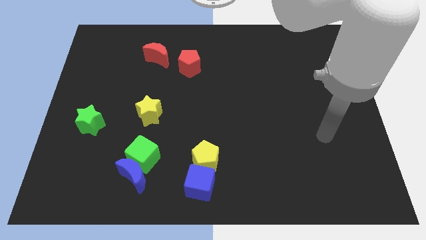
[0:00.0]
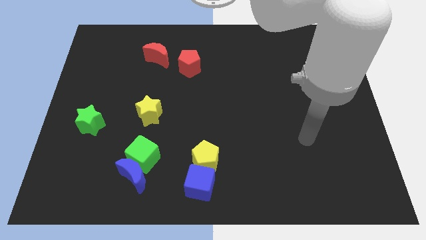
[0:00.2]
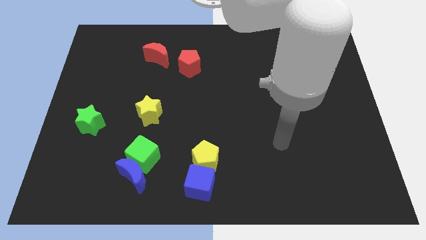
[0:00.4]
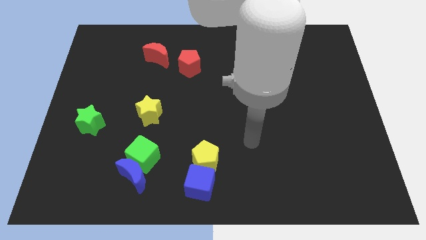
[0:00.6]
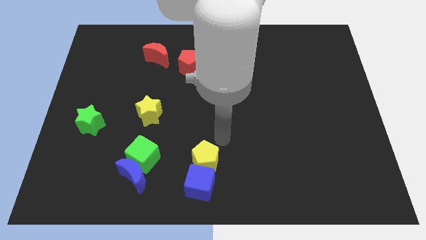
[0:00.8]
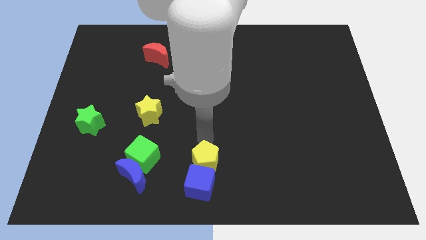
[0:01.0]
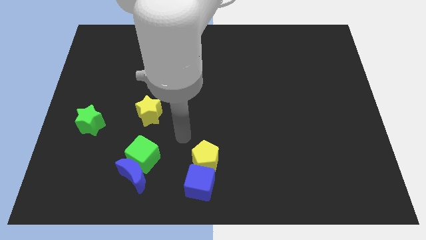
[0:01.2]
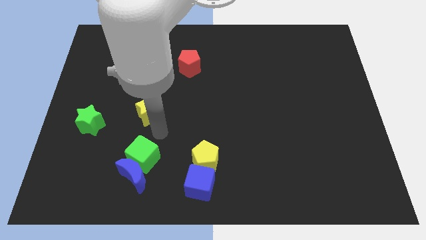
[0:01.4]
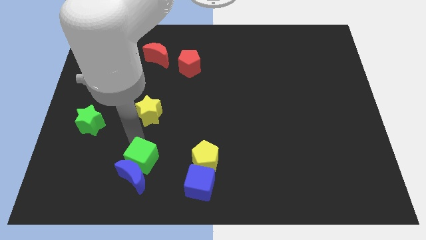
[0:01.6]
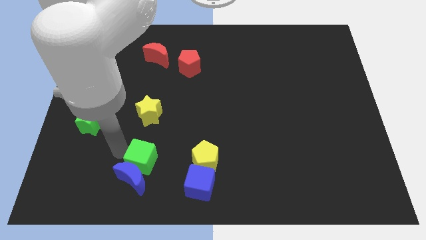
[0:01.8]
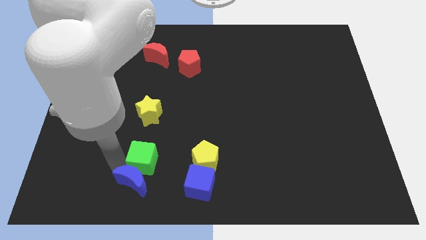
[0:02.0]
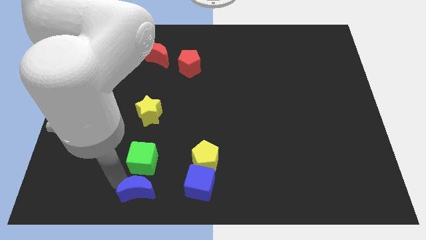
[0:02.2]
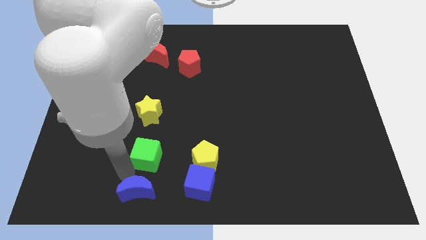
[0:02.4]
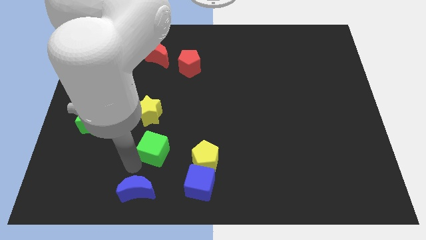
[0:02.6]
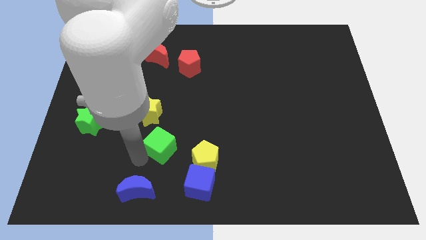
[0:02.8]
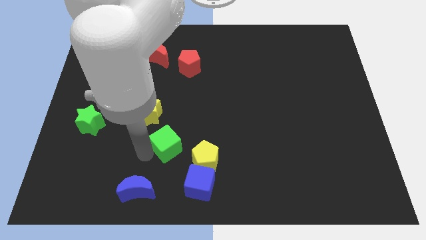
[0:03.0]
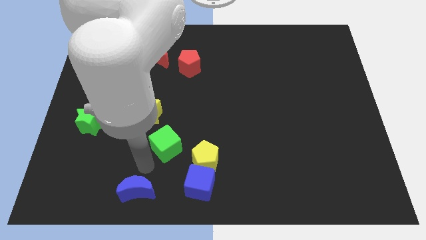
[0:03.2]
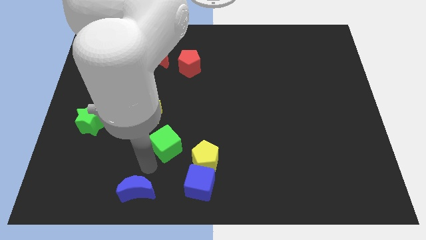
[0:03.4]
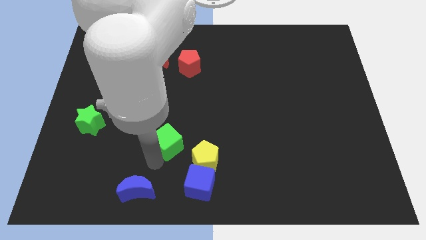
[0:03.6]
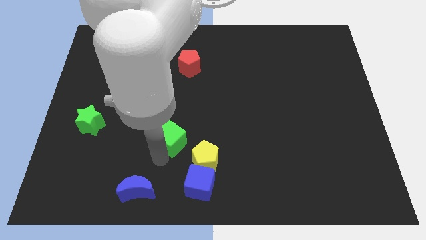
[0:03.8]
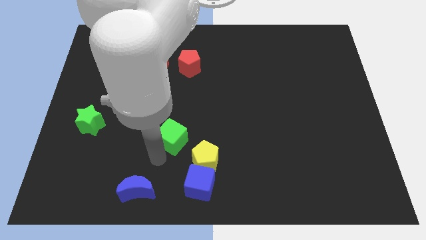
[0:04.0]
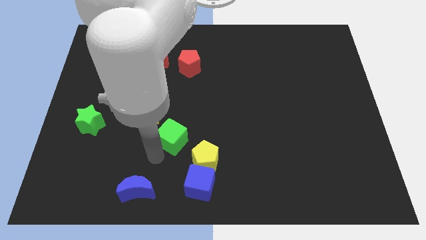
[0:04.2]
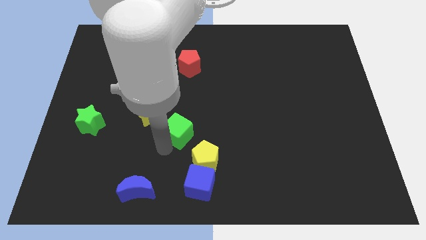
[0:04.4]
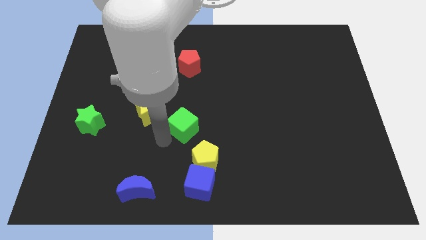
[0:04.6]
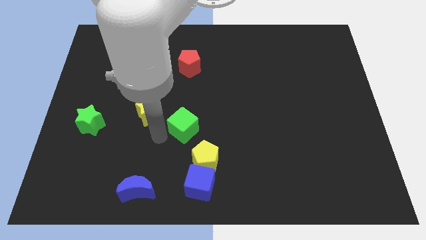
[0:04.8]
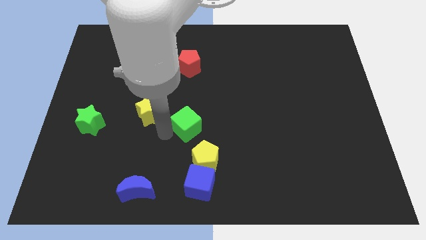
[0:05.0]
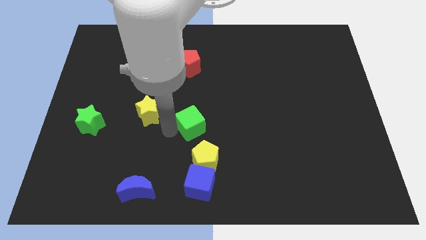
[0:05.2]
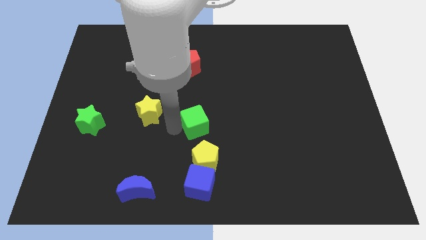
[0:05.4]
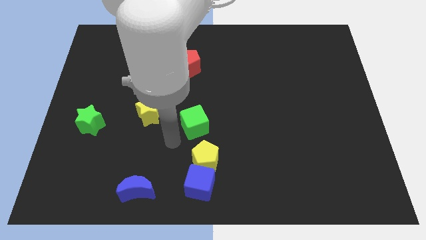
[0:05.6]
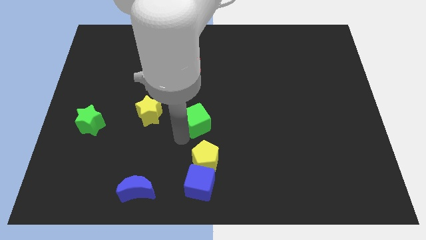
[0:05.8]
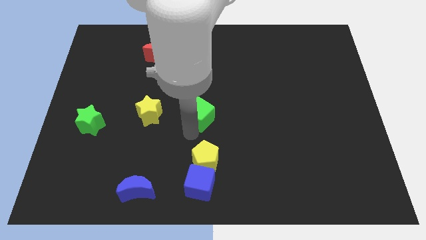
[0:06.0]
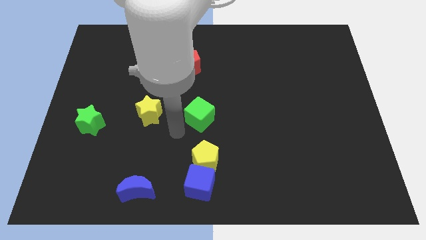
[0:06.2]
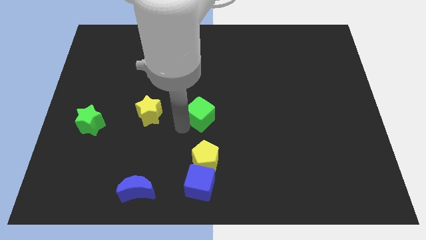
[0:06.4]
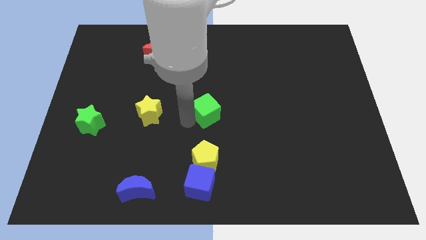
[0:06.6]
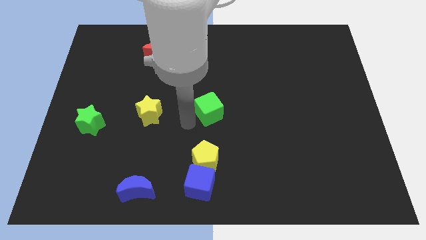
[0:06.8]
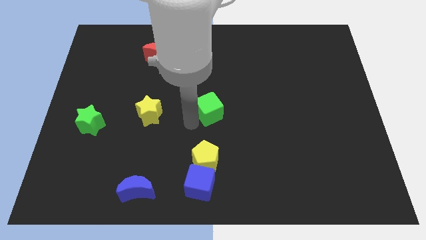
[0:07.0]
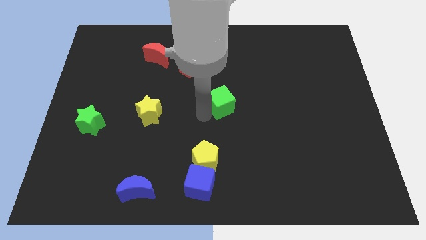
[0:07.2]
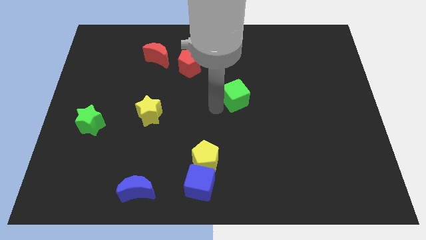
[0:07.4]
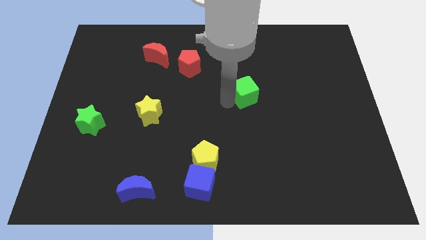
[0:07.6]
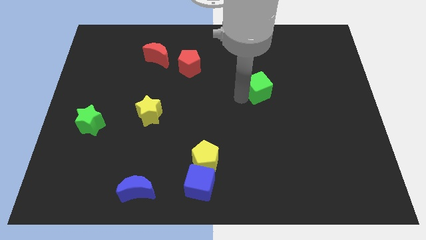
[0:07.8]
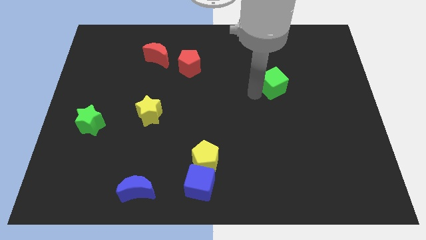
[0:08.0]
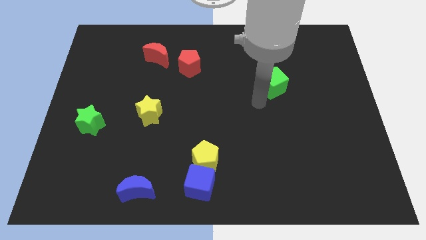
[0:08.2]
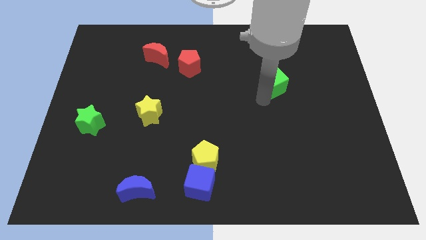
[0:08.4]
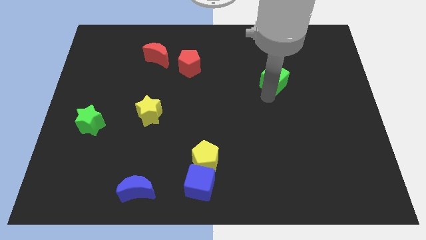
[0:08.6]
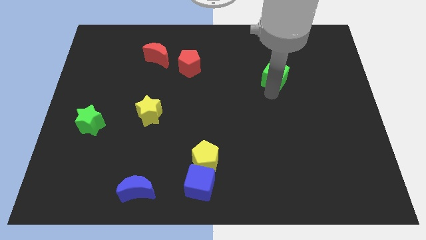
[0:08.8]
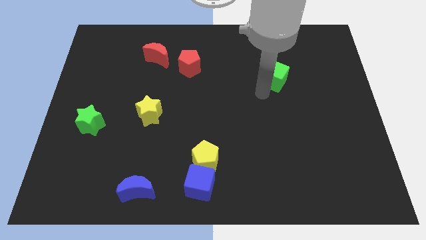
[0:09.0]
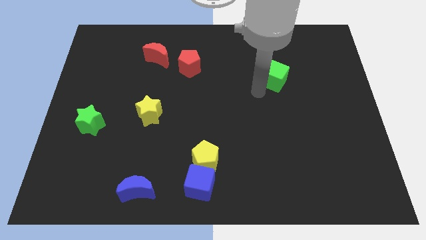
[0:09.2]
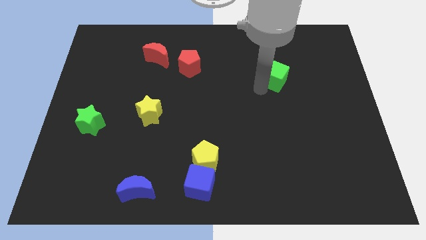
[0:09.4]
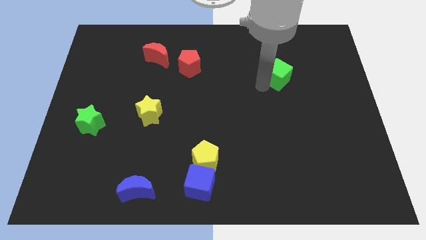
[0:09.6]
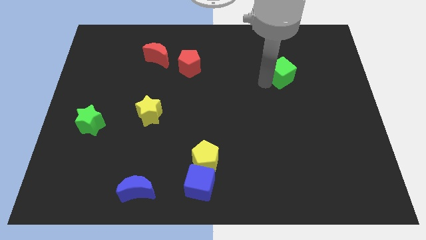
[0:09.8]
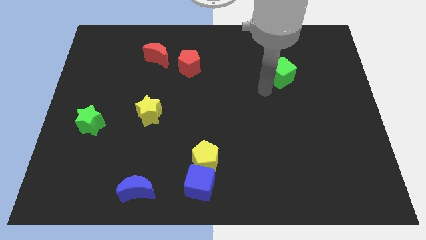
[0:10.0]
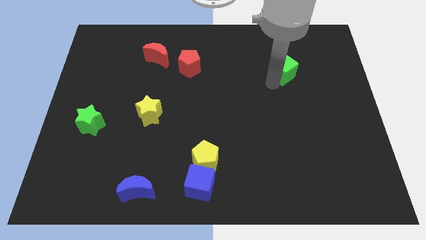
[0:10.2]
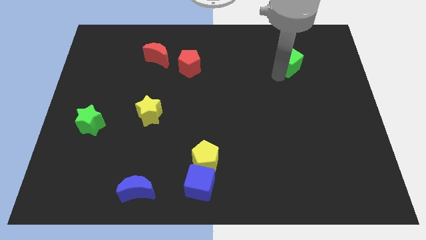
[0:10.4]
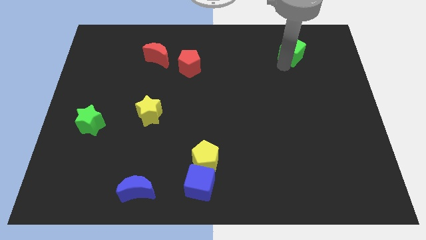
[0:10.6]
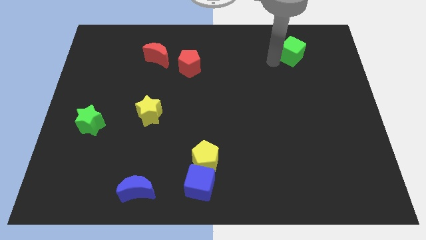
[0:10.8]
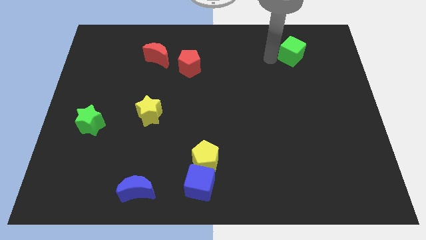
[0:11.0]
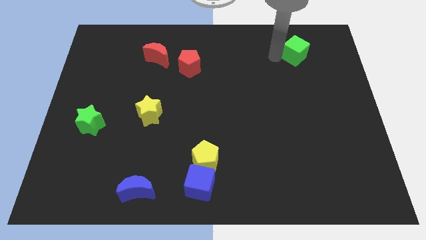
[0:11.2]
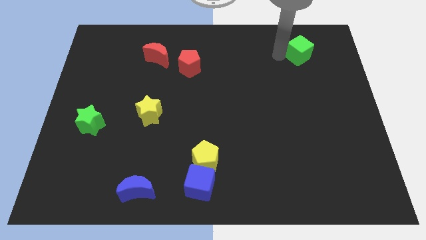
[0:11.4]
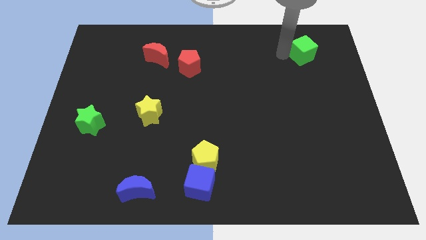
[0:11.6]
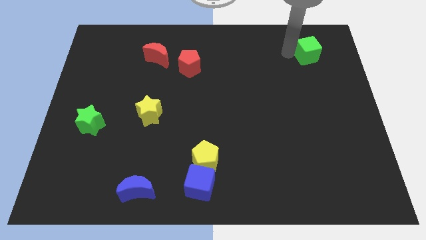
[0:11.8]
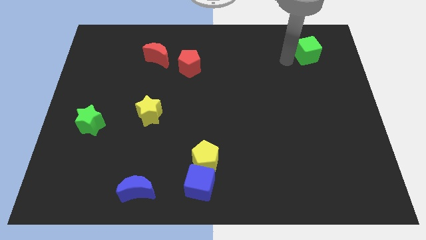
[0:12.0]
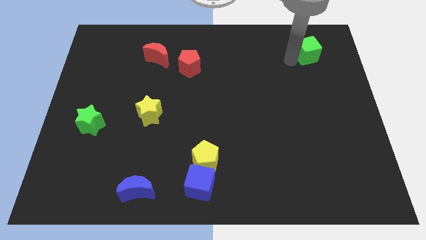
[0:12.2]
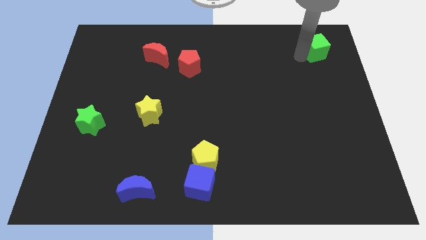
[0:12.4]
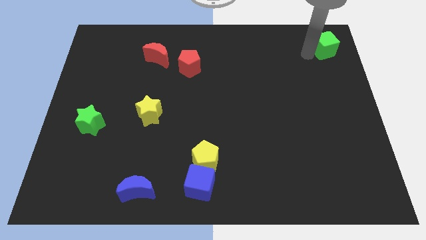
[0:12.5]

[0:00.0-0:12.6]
push the green cube to the upper right corner
